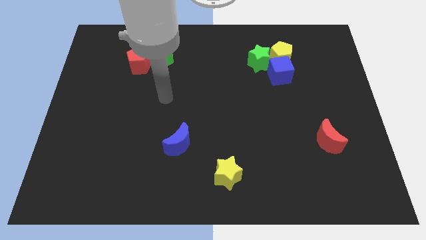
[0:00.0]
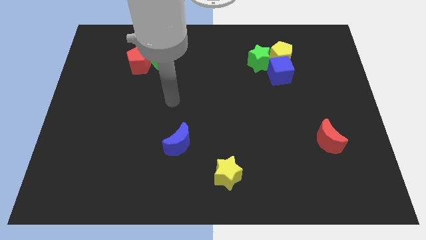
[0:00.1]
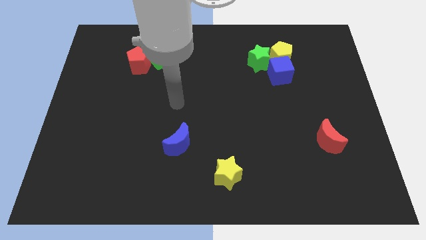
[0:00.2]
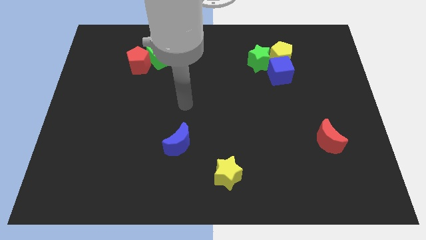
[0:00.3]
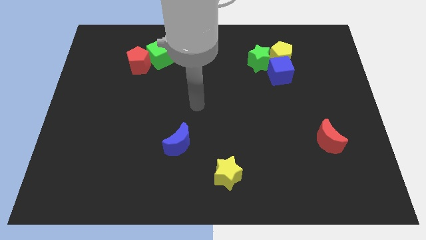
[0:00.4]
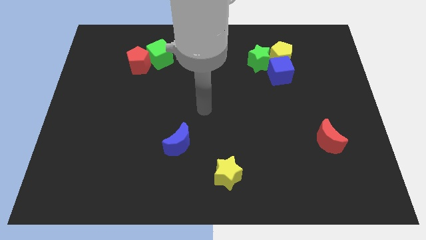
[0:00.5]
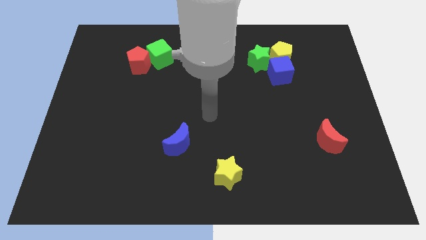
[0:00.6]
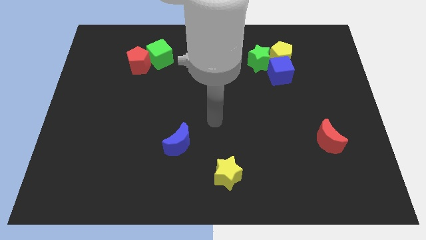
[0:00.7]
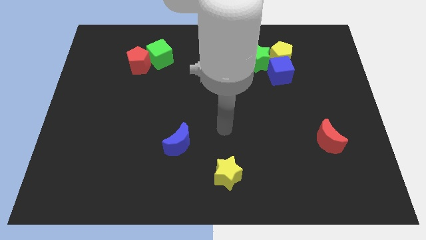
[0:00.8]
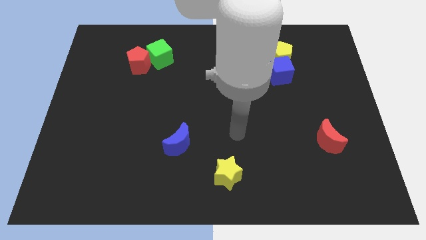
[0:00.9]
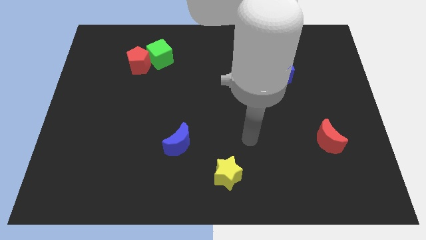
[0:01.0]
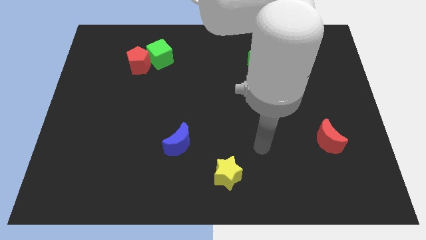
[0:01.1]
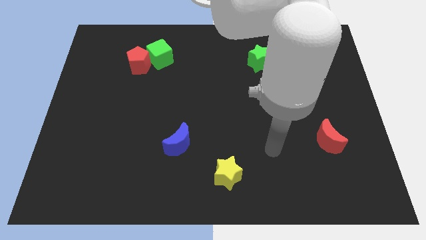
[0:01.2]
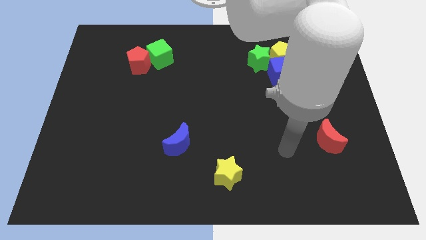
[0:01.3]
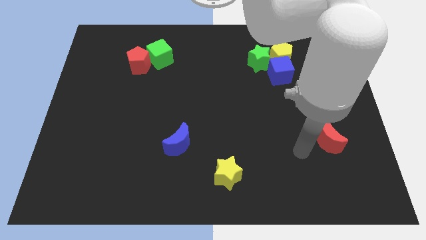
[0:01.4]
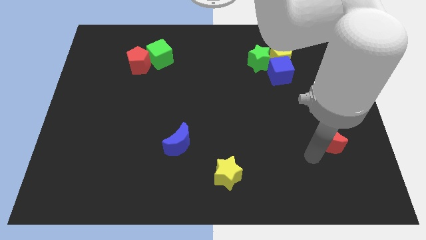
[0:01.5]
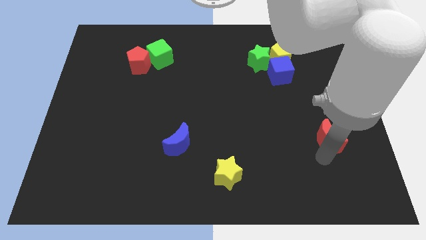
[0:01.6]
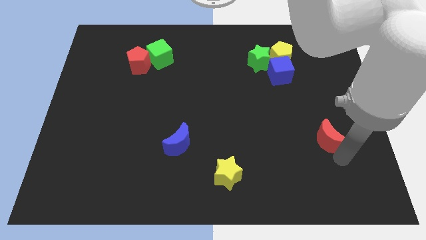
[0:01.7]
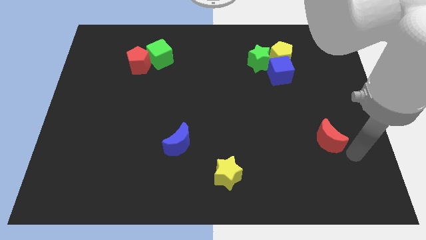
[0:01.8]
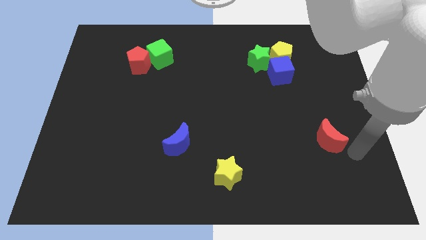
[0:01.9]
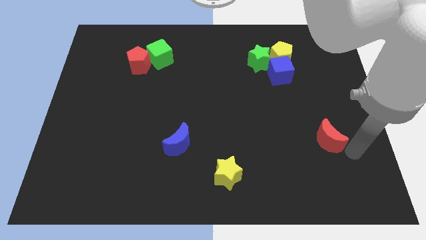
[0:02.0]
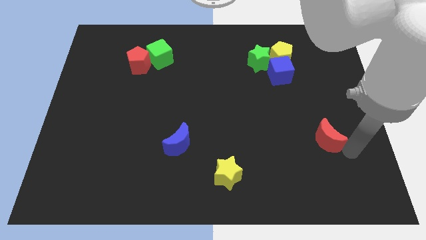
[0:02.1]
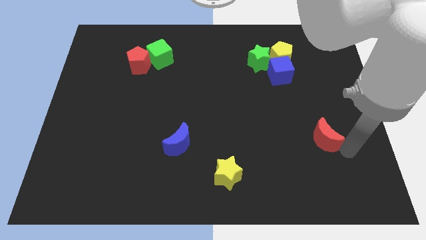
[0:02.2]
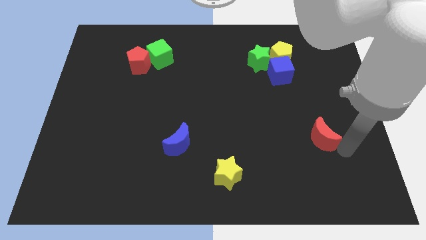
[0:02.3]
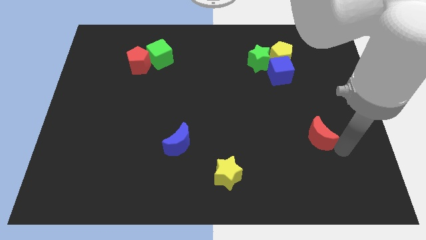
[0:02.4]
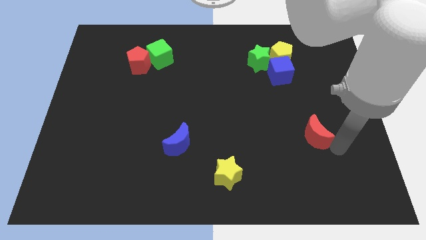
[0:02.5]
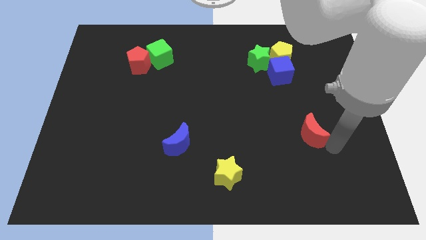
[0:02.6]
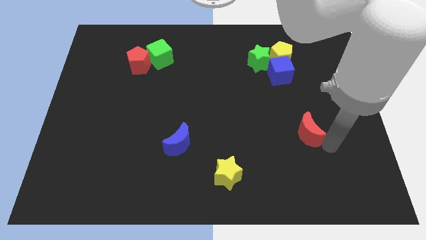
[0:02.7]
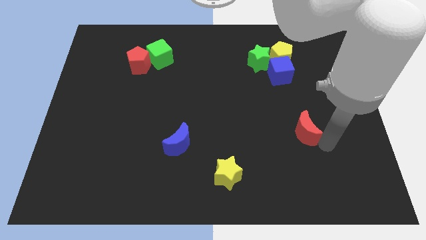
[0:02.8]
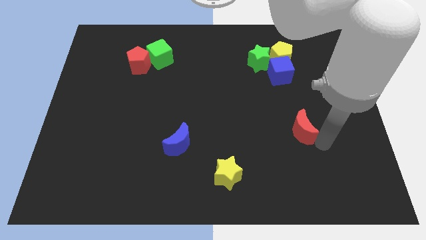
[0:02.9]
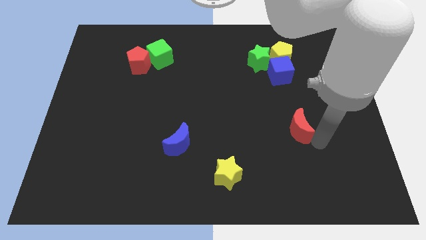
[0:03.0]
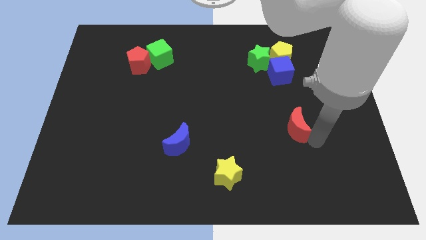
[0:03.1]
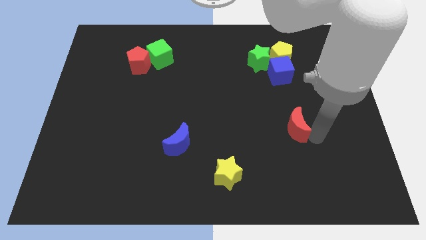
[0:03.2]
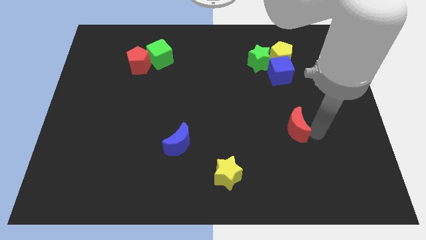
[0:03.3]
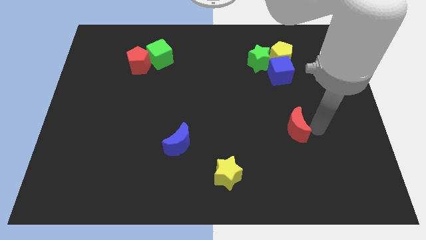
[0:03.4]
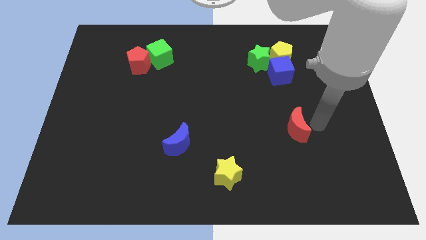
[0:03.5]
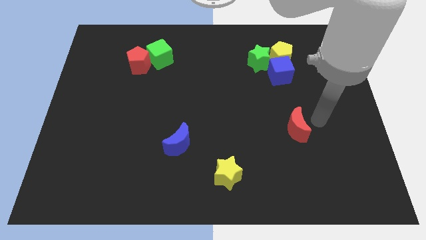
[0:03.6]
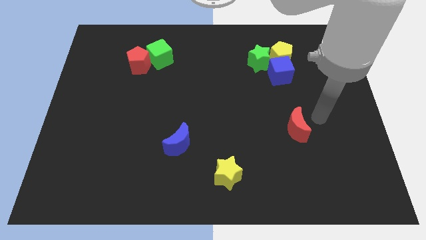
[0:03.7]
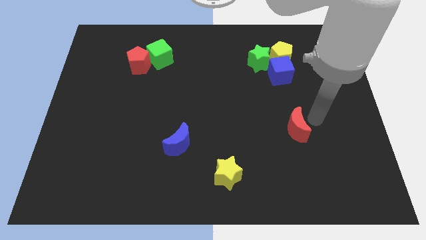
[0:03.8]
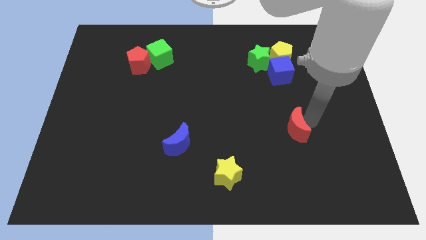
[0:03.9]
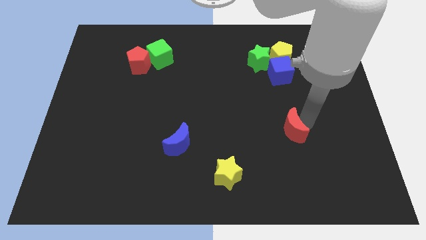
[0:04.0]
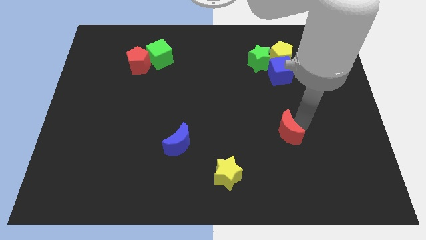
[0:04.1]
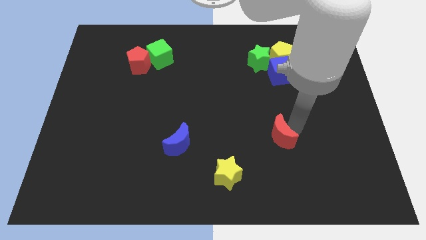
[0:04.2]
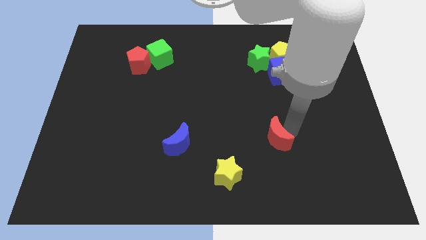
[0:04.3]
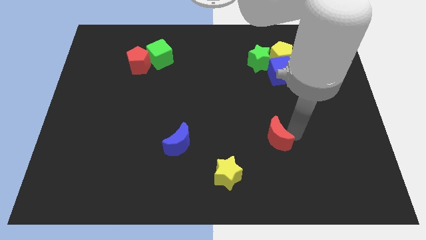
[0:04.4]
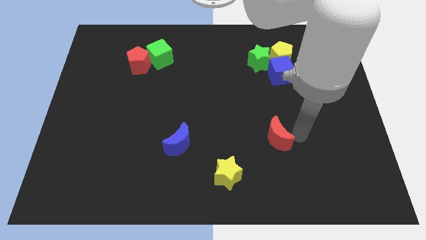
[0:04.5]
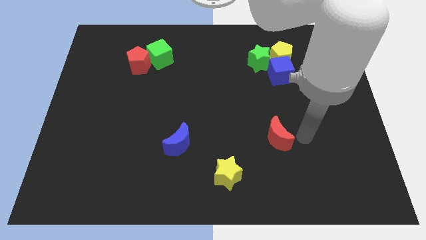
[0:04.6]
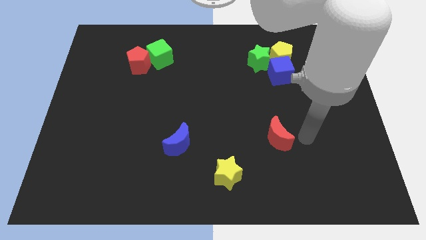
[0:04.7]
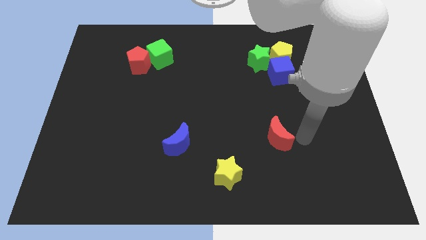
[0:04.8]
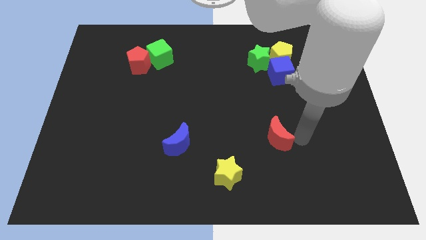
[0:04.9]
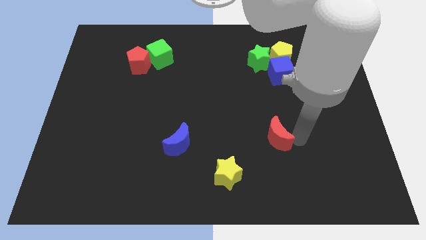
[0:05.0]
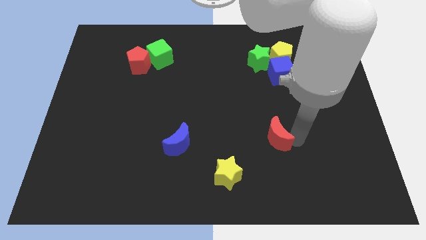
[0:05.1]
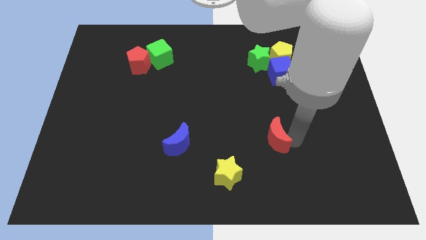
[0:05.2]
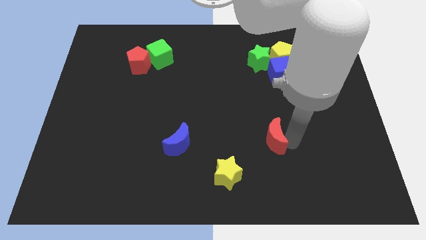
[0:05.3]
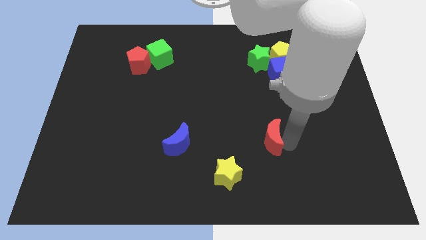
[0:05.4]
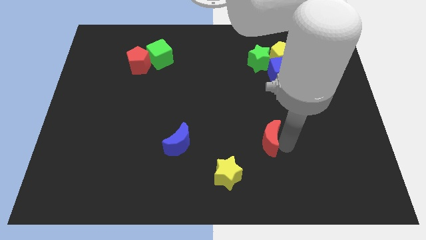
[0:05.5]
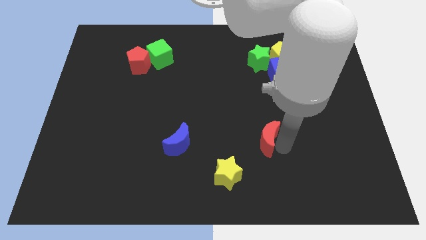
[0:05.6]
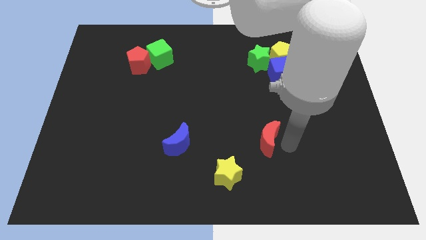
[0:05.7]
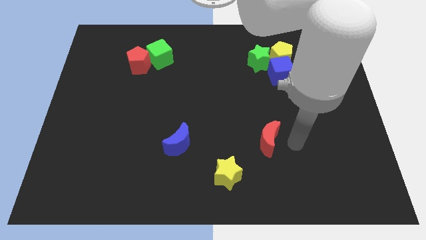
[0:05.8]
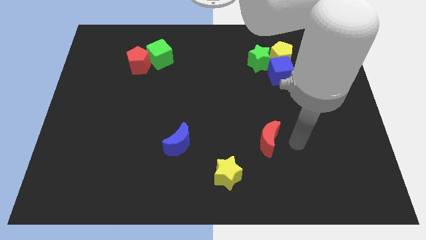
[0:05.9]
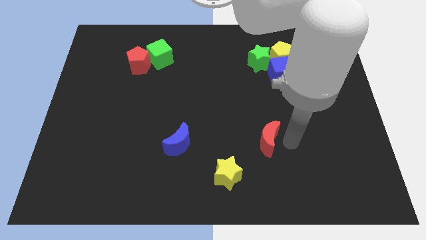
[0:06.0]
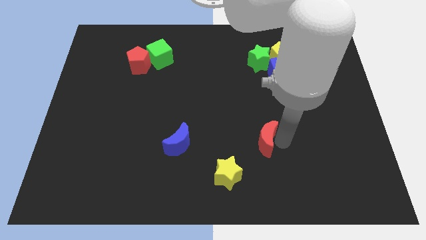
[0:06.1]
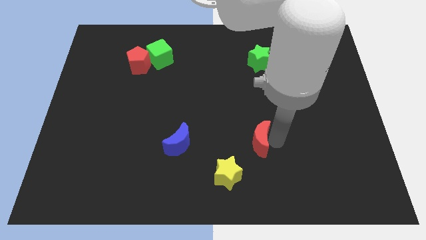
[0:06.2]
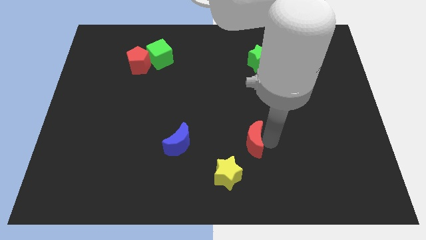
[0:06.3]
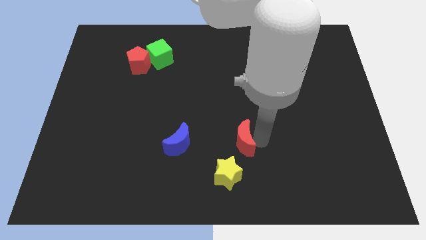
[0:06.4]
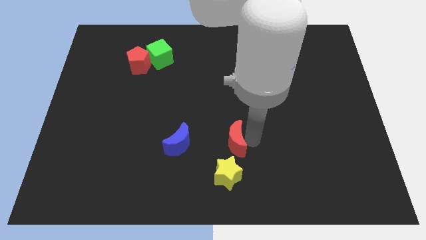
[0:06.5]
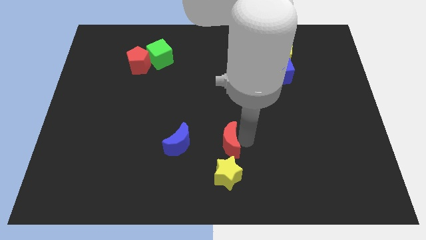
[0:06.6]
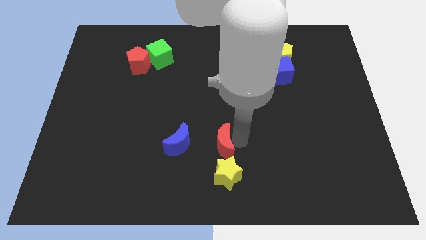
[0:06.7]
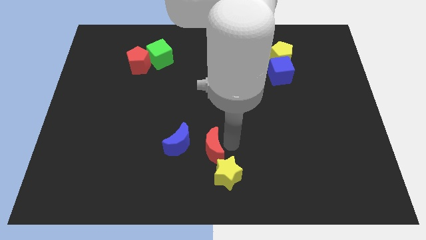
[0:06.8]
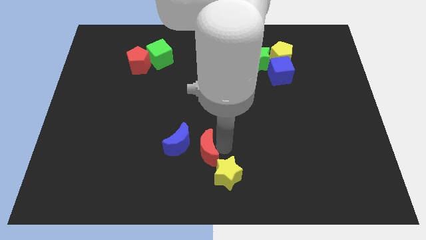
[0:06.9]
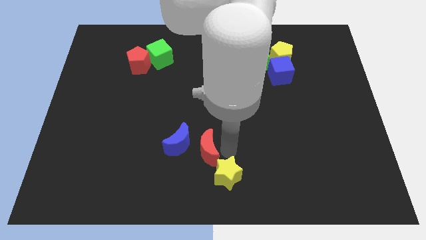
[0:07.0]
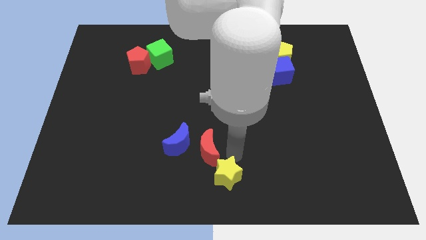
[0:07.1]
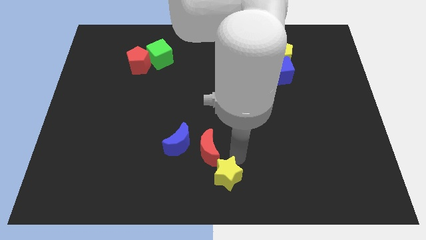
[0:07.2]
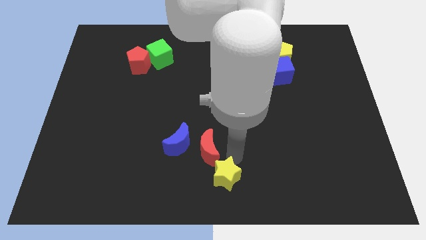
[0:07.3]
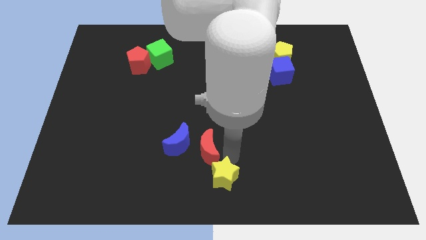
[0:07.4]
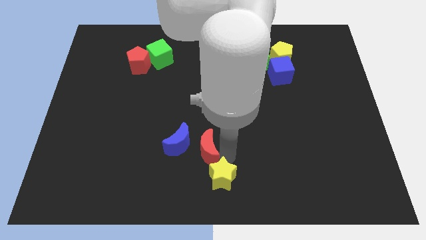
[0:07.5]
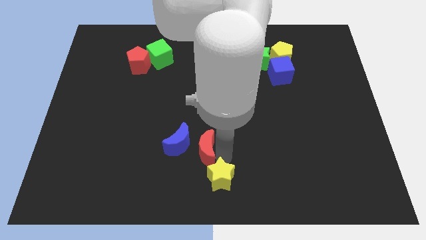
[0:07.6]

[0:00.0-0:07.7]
put the red moon close to the blue moon
